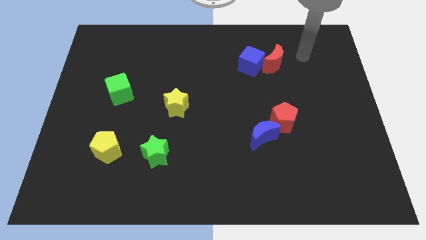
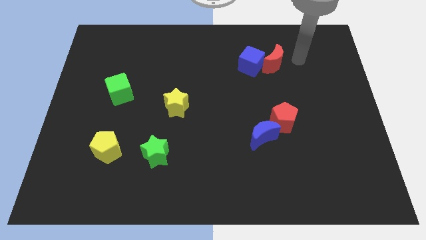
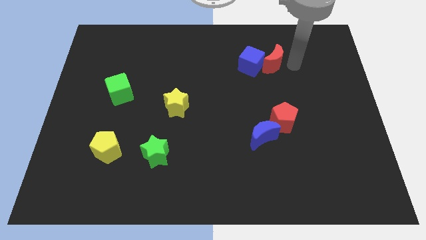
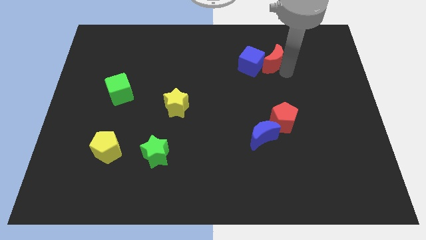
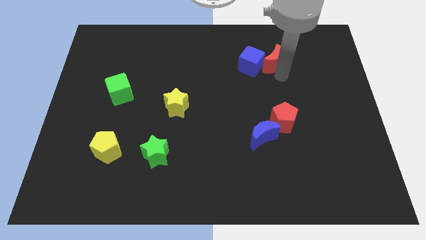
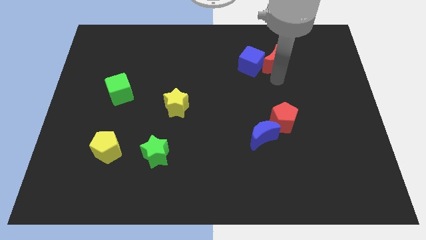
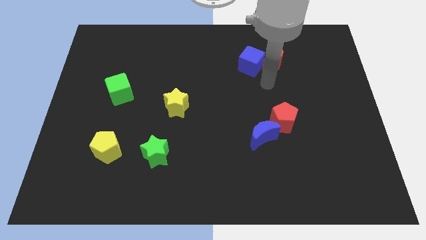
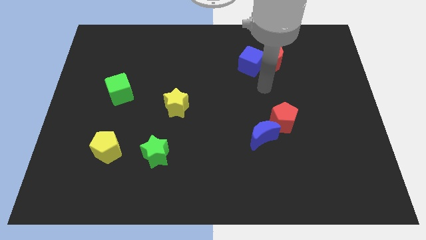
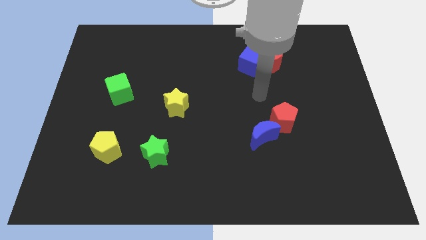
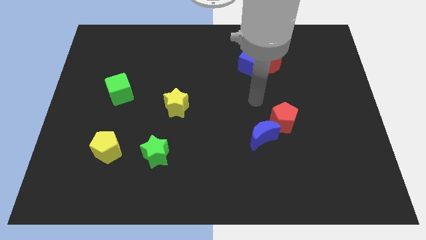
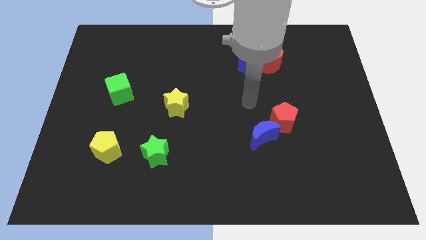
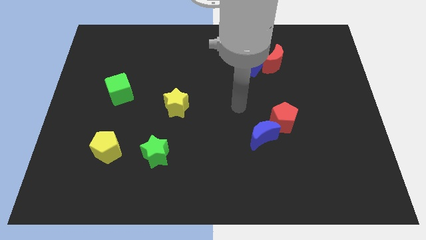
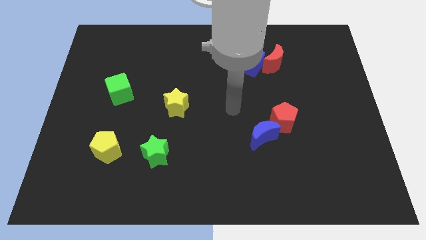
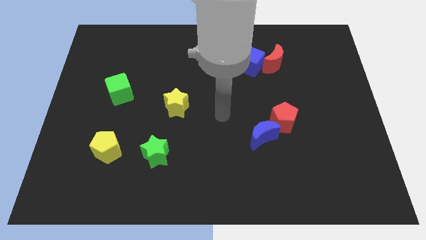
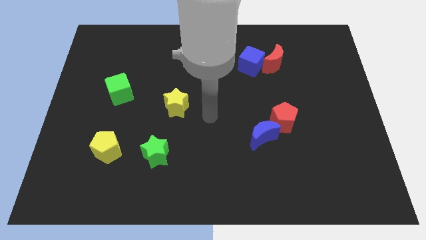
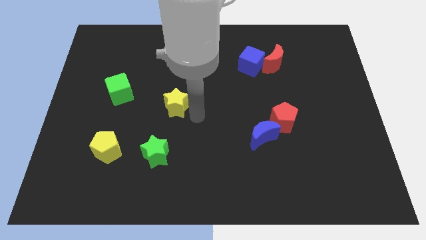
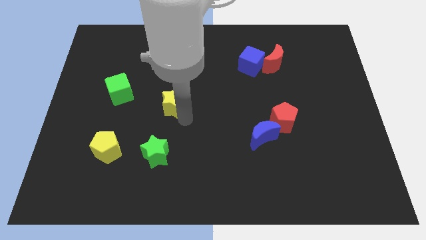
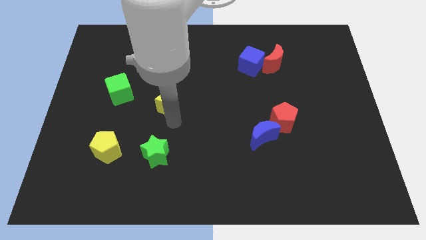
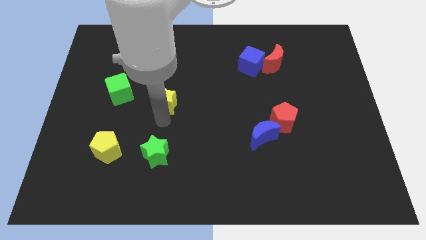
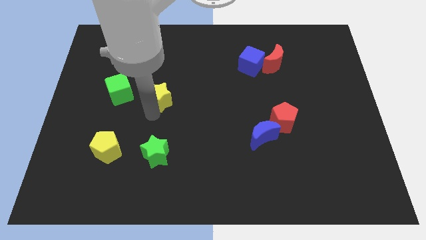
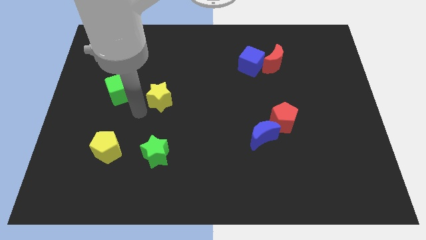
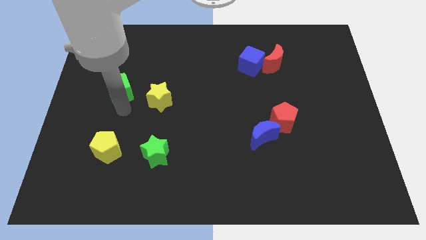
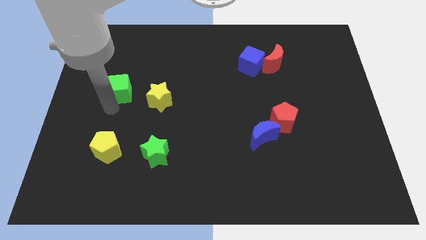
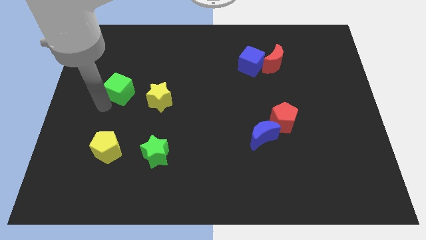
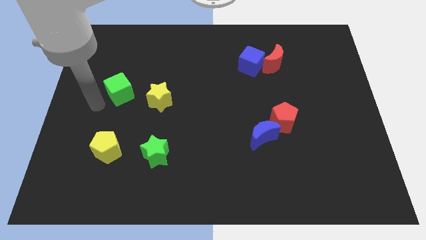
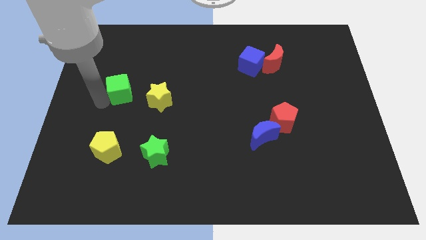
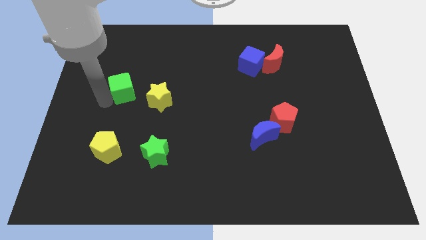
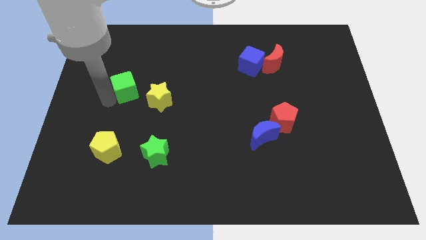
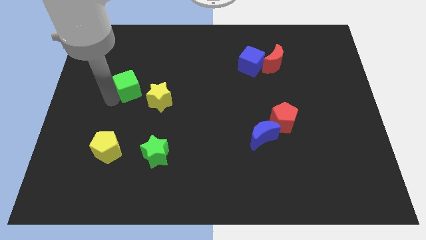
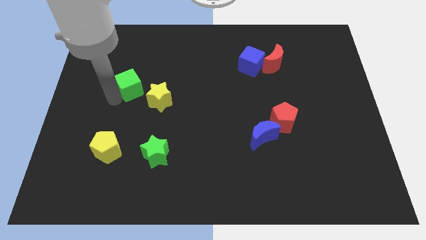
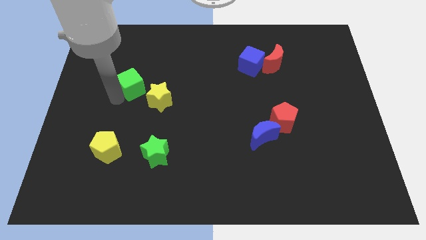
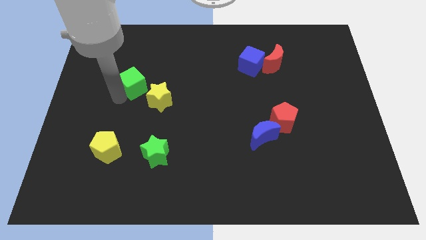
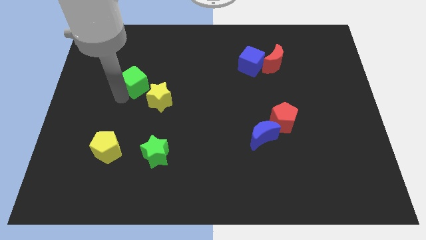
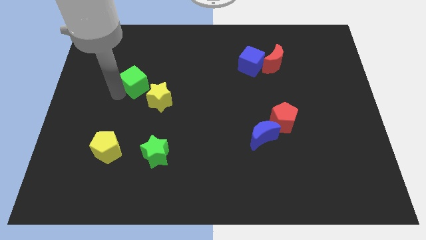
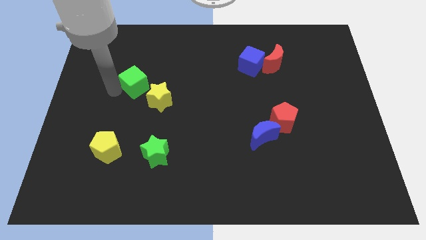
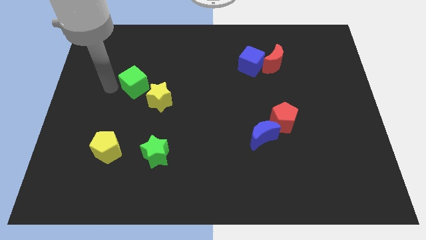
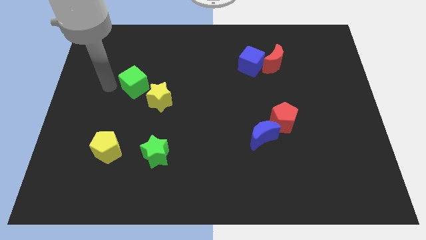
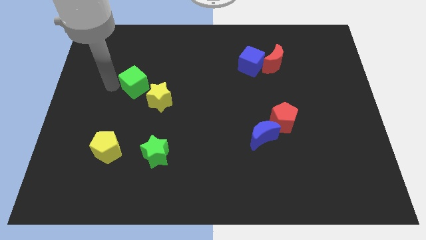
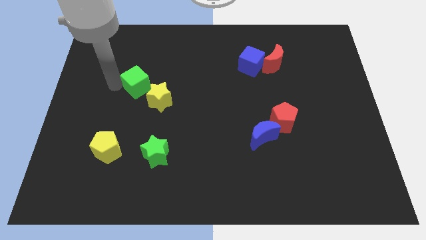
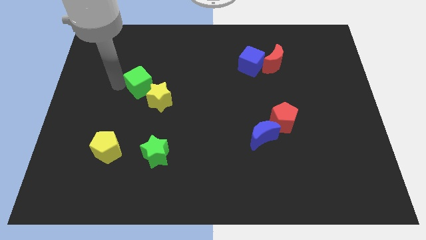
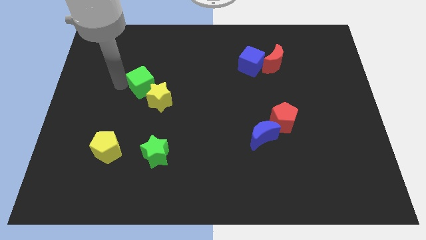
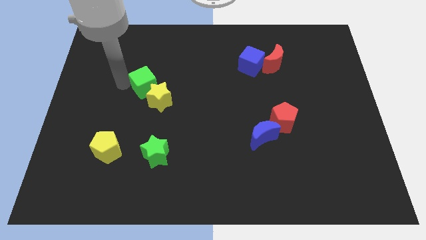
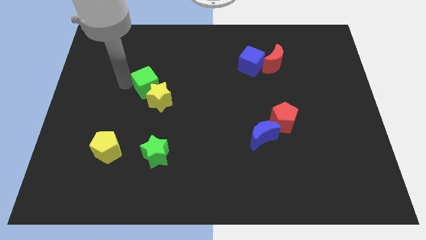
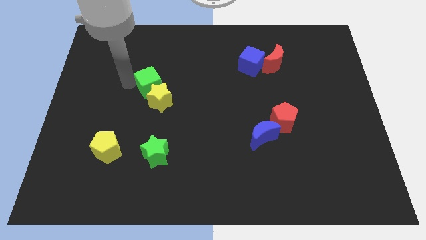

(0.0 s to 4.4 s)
slide the green cube slightly right

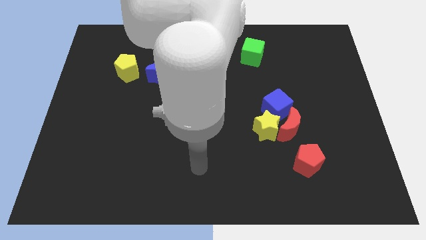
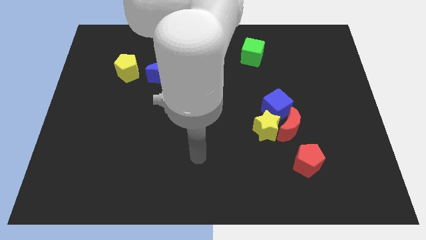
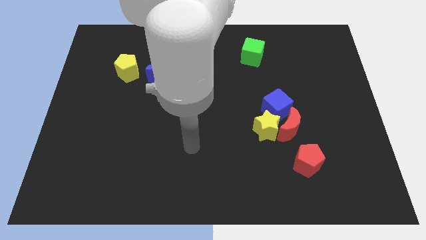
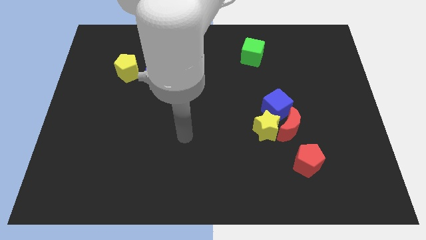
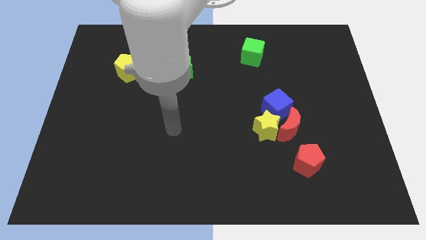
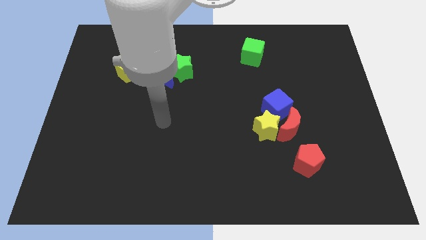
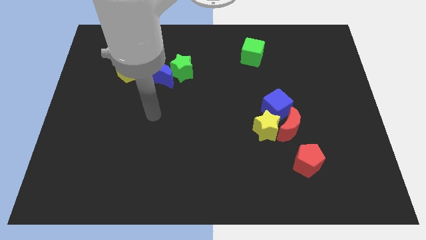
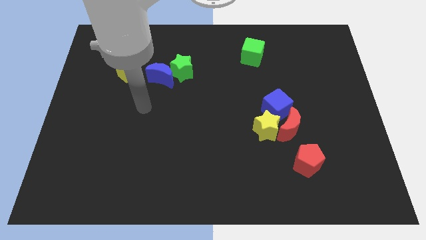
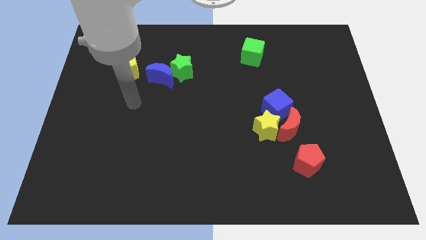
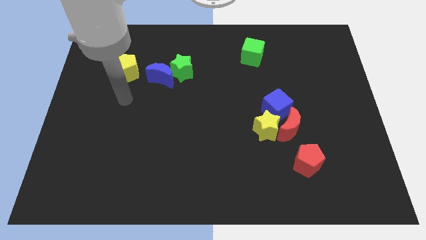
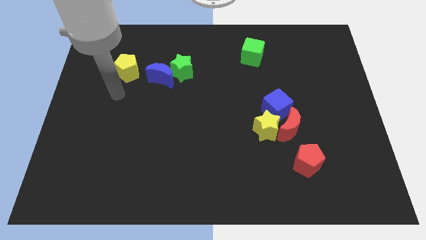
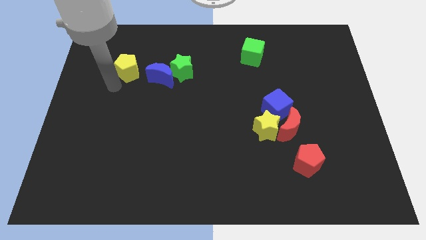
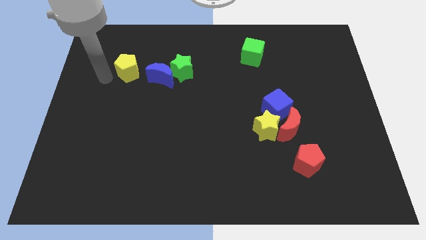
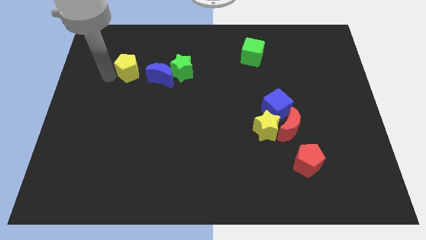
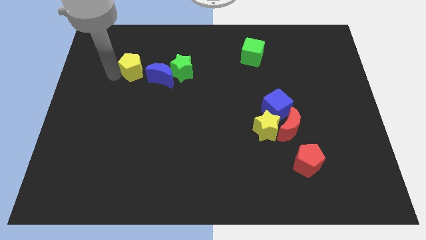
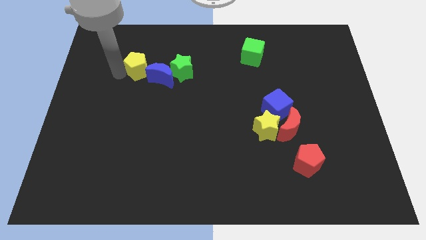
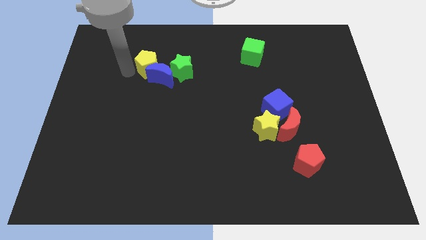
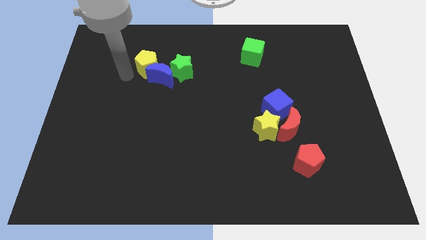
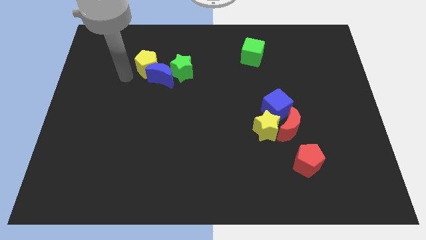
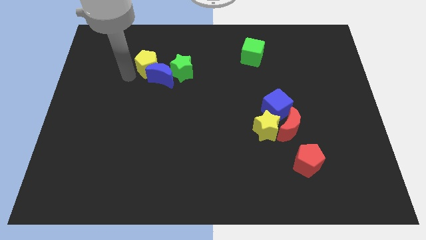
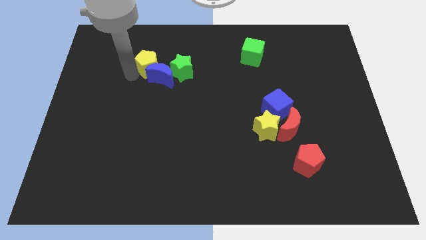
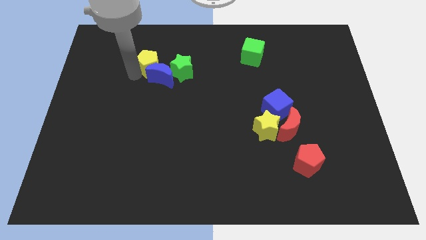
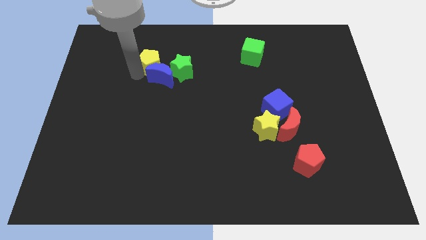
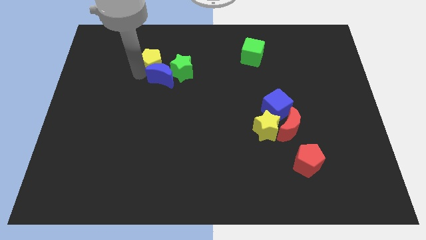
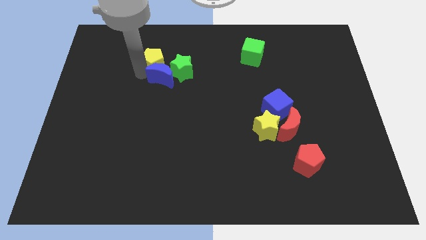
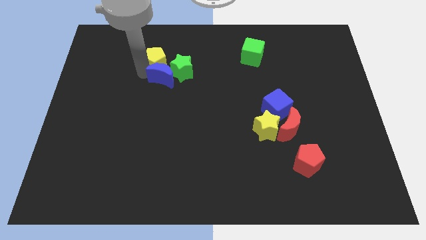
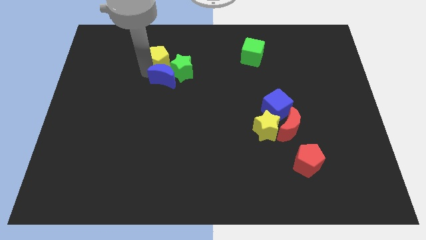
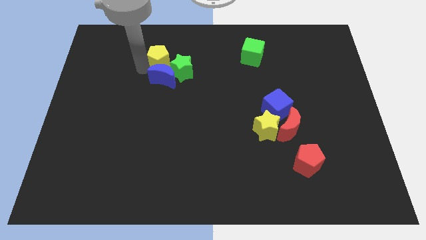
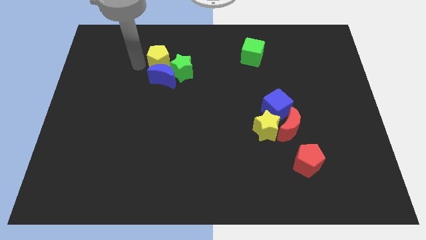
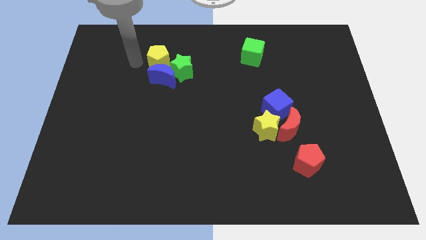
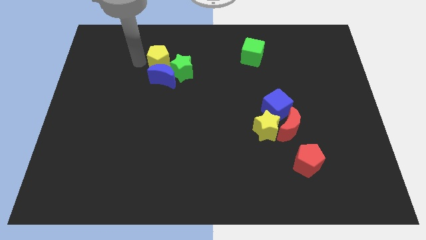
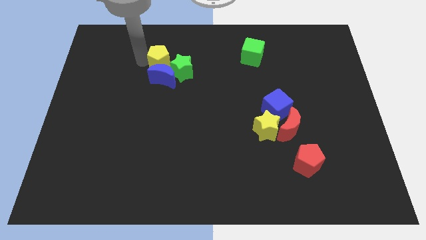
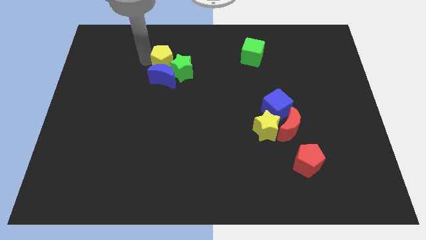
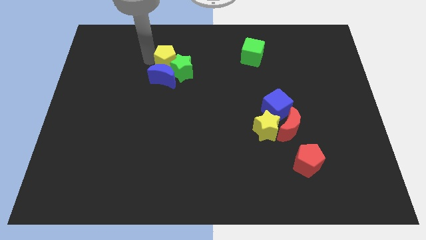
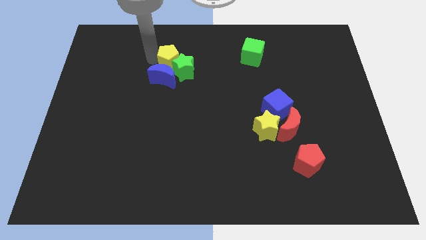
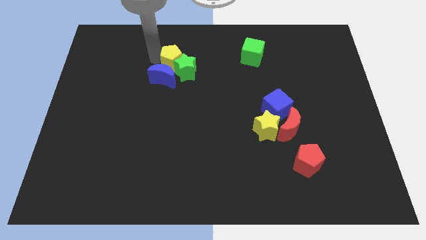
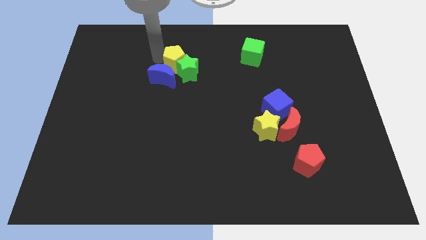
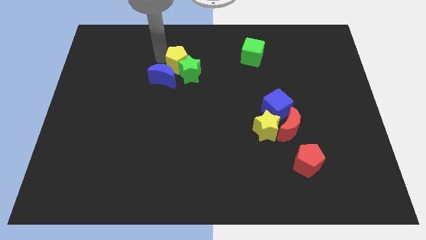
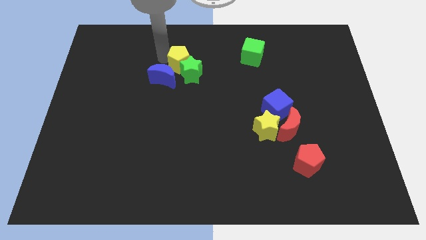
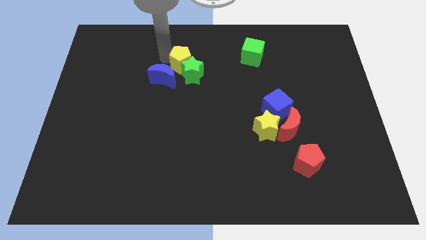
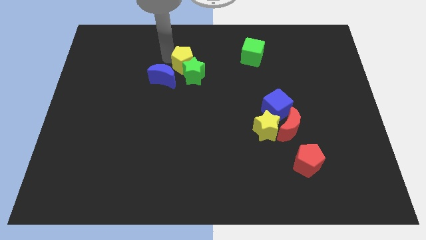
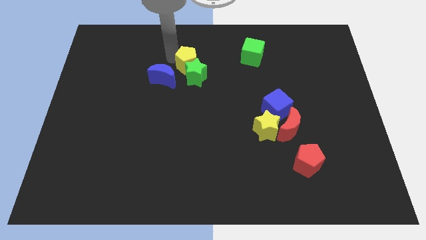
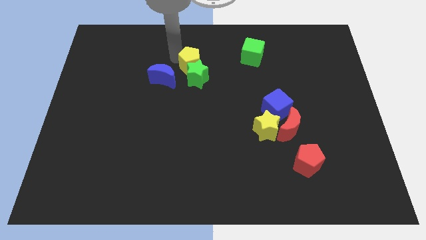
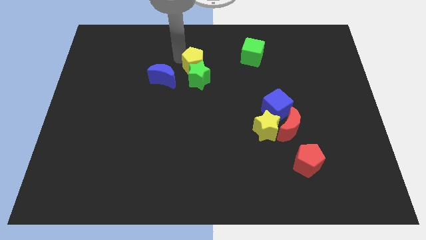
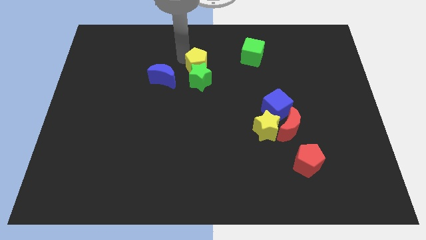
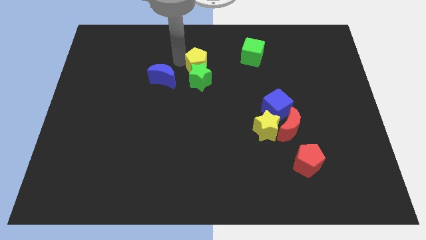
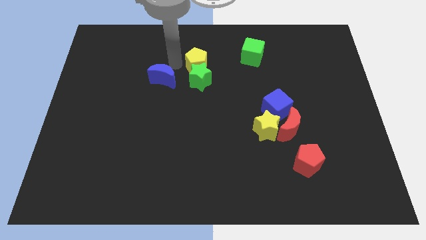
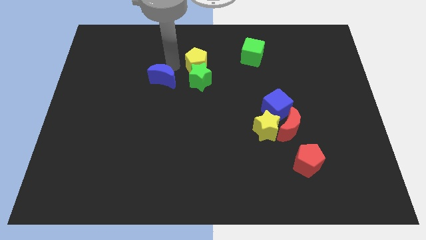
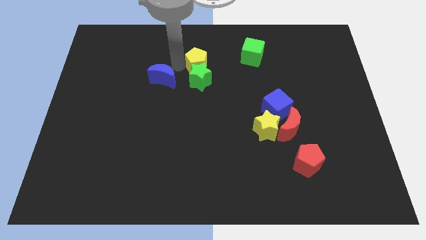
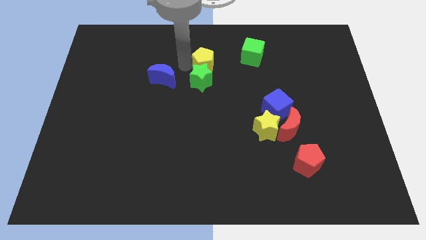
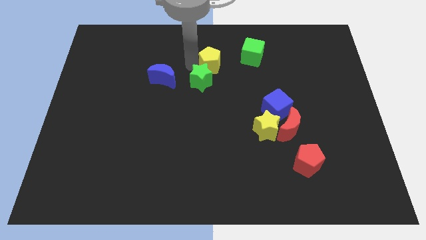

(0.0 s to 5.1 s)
slide the yellow pentagon to the right
